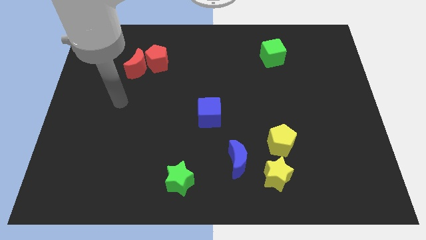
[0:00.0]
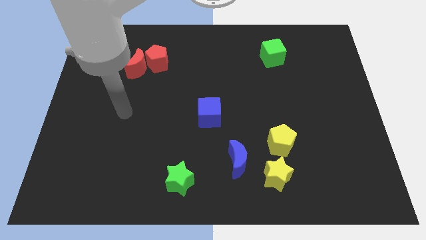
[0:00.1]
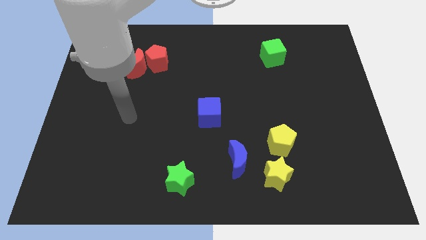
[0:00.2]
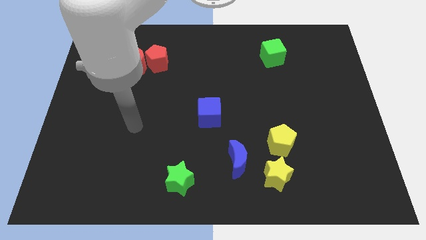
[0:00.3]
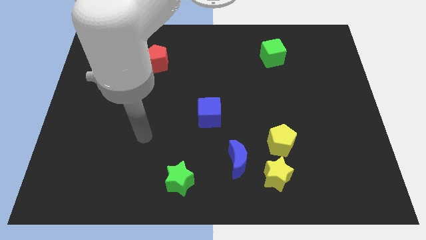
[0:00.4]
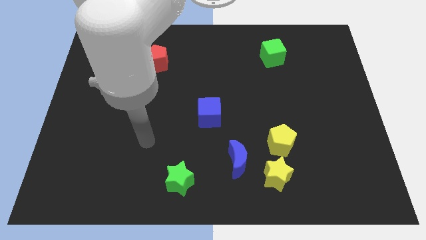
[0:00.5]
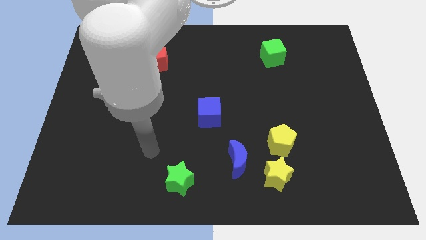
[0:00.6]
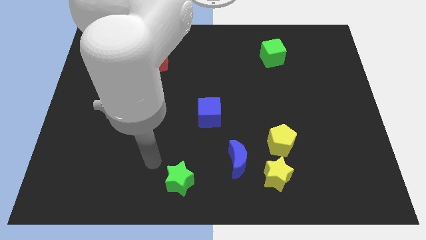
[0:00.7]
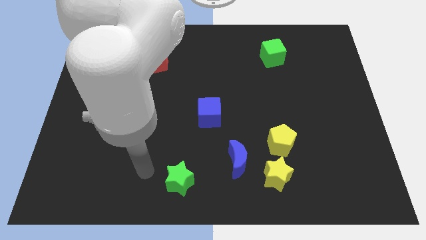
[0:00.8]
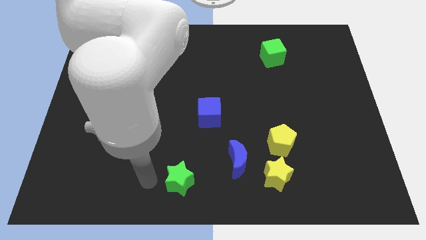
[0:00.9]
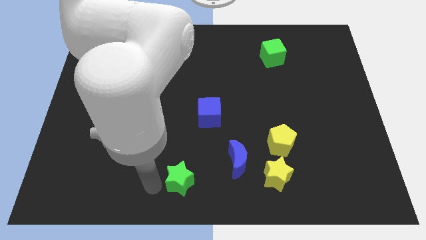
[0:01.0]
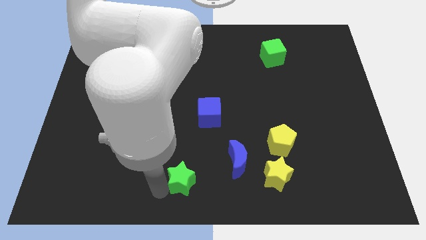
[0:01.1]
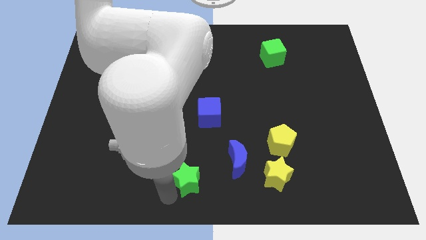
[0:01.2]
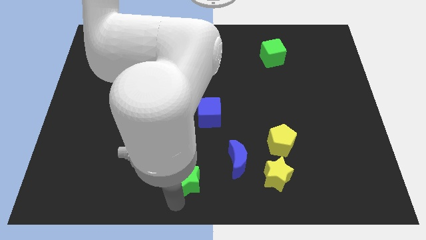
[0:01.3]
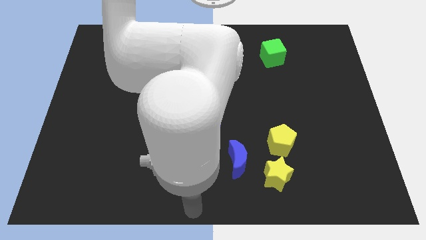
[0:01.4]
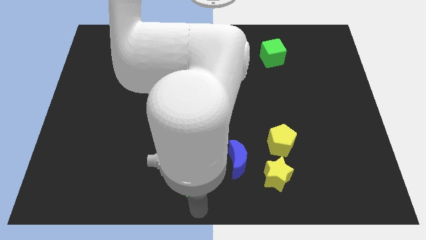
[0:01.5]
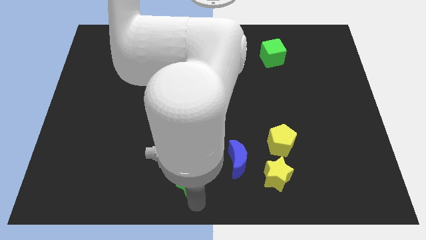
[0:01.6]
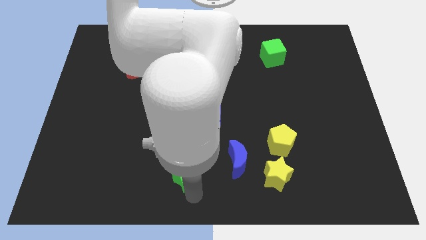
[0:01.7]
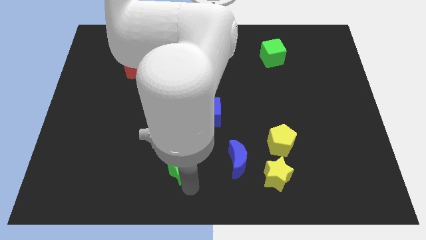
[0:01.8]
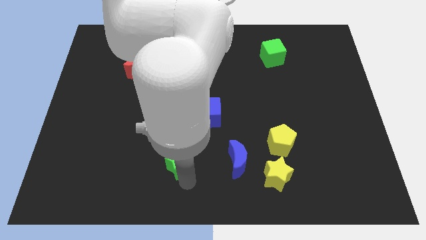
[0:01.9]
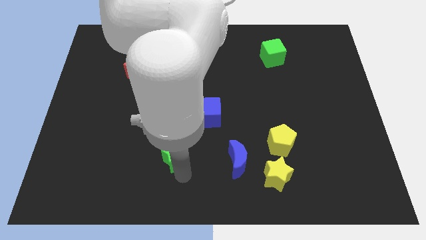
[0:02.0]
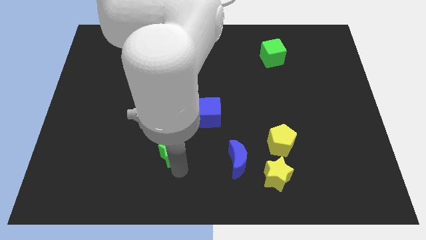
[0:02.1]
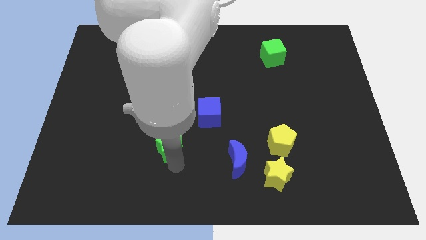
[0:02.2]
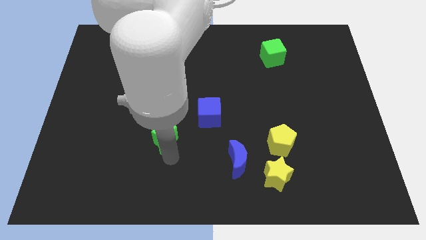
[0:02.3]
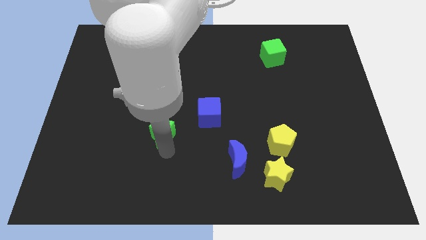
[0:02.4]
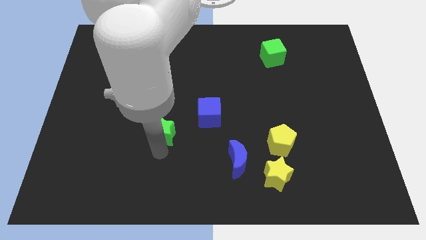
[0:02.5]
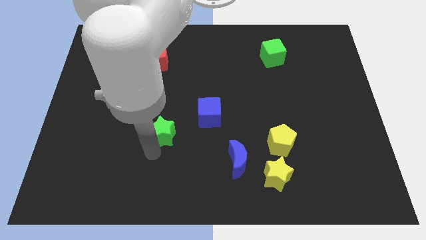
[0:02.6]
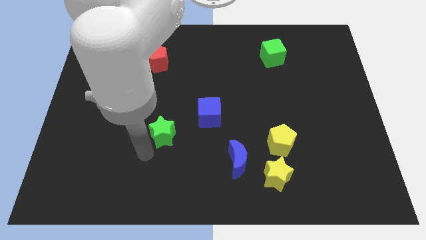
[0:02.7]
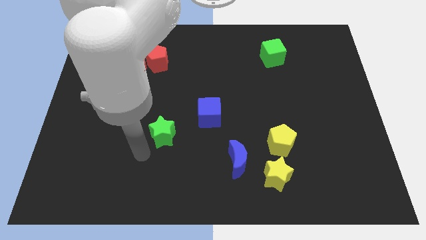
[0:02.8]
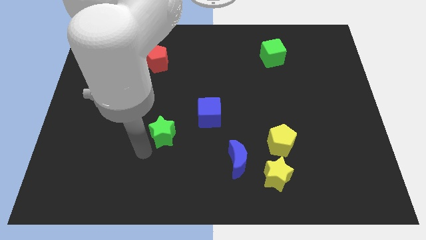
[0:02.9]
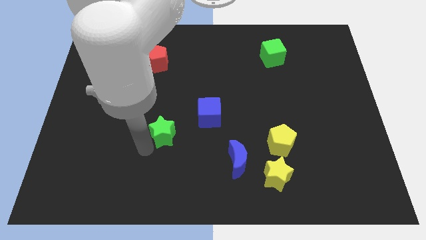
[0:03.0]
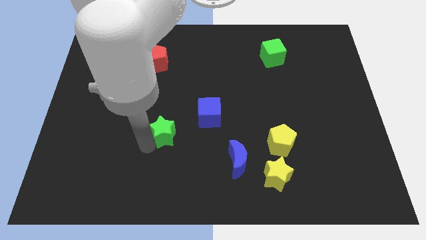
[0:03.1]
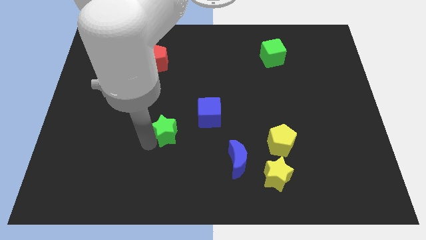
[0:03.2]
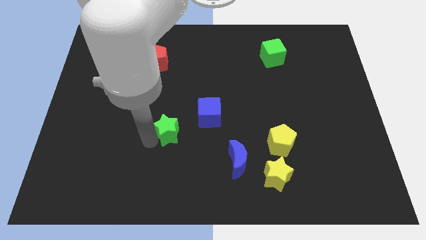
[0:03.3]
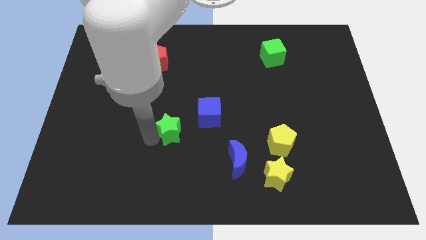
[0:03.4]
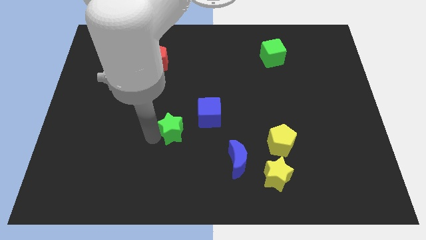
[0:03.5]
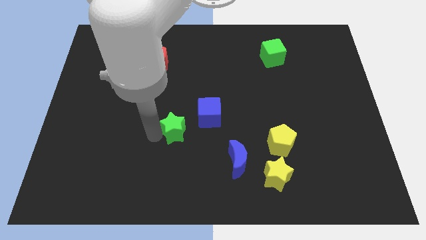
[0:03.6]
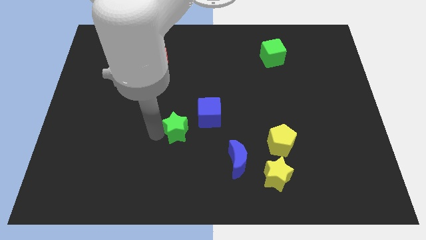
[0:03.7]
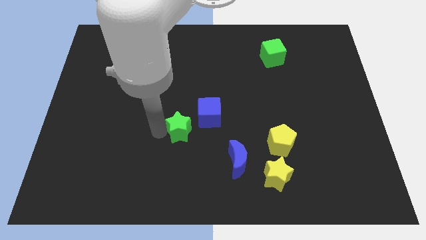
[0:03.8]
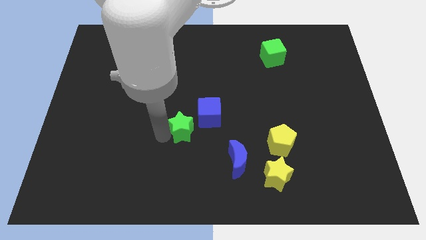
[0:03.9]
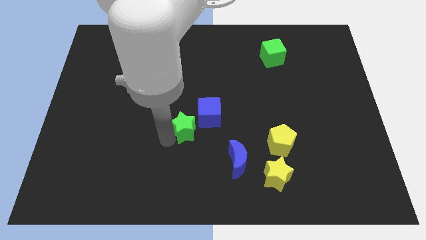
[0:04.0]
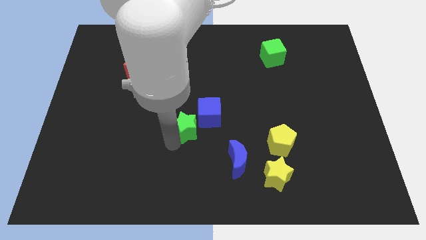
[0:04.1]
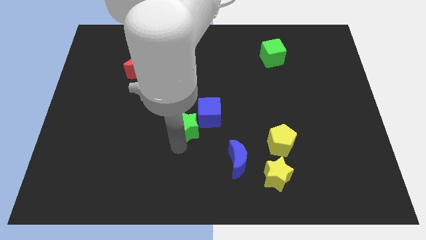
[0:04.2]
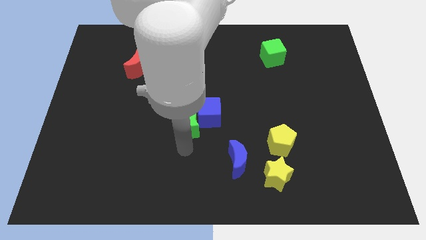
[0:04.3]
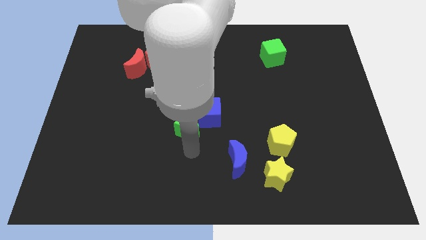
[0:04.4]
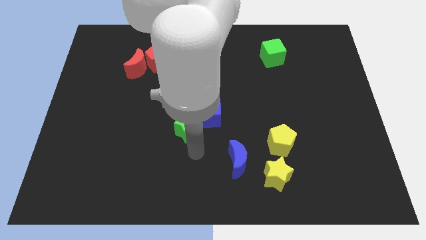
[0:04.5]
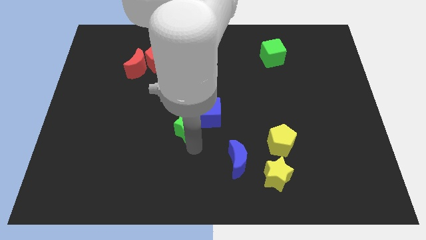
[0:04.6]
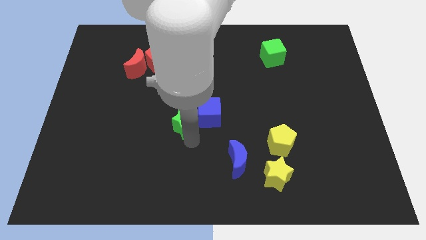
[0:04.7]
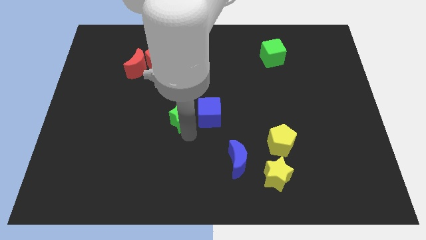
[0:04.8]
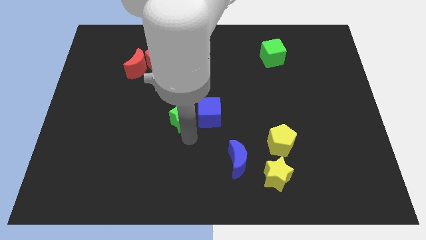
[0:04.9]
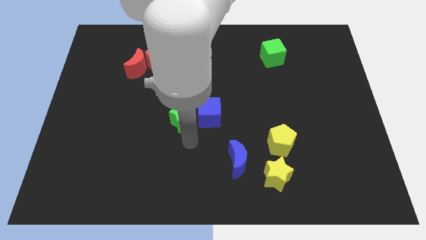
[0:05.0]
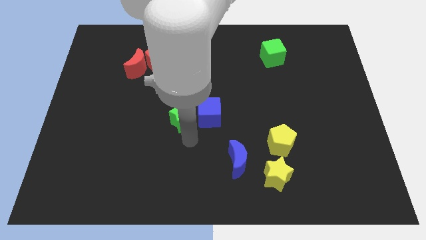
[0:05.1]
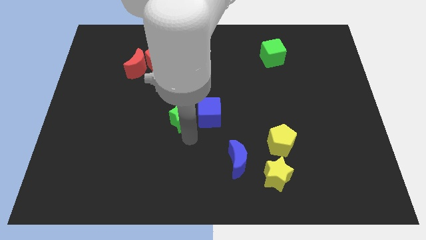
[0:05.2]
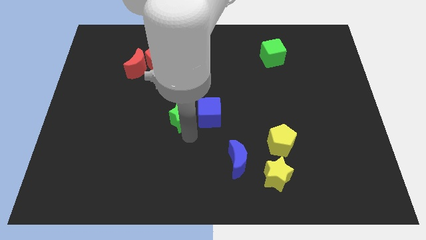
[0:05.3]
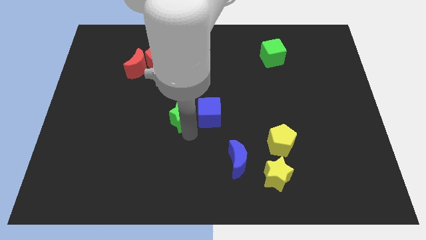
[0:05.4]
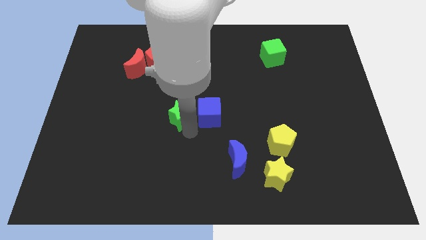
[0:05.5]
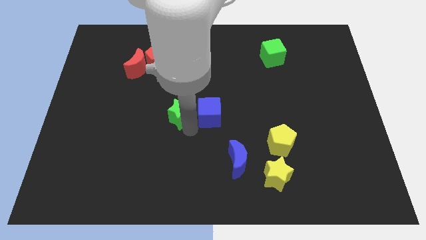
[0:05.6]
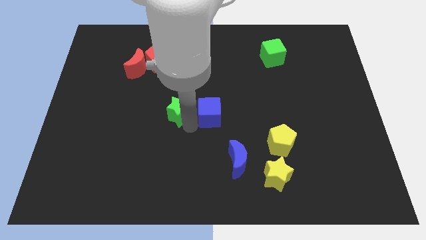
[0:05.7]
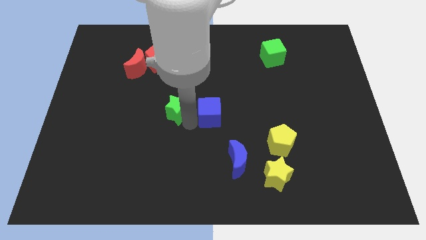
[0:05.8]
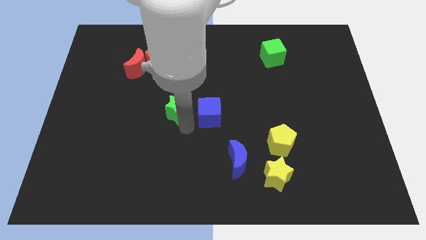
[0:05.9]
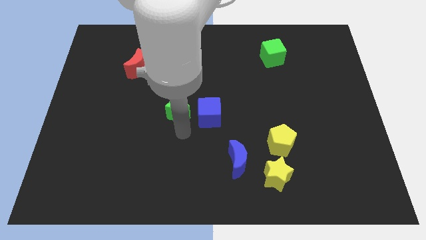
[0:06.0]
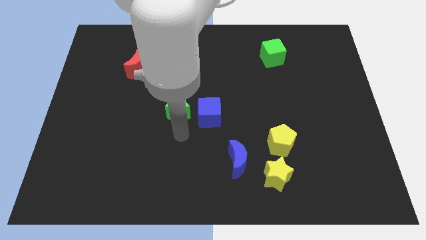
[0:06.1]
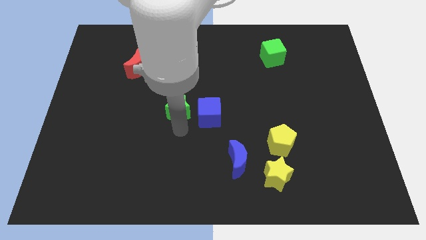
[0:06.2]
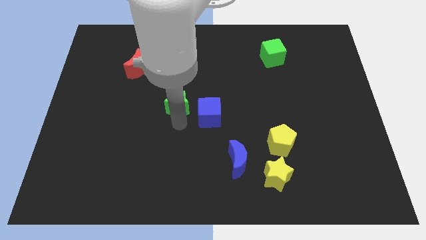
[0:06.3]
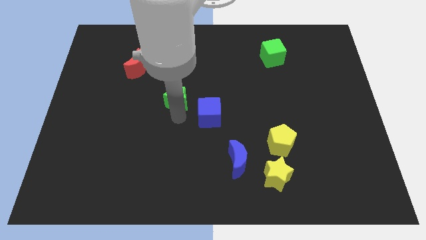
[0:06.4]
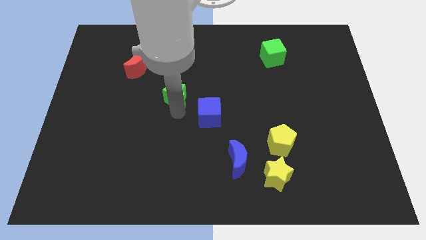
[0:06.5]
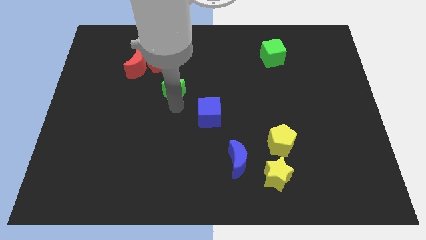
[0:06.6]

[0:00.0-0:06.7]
put the green star diagonally down and to the right of the red pentagon
